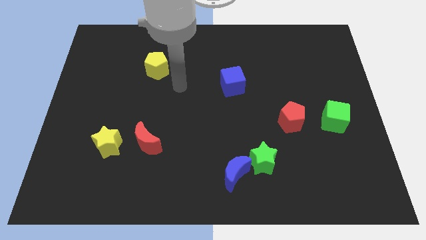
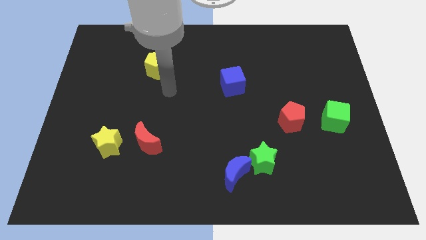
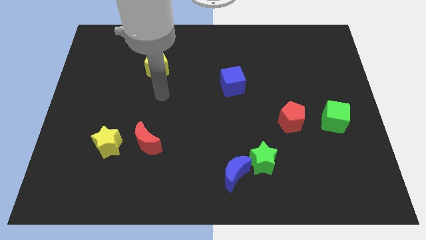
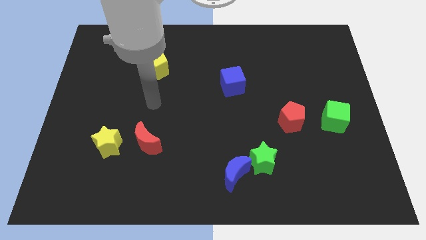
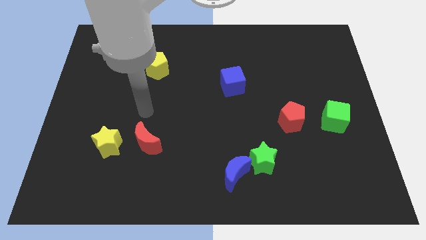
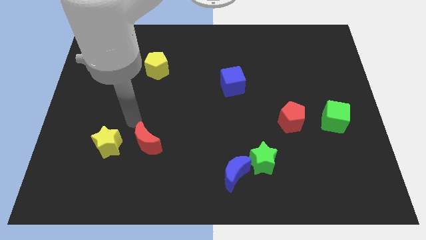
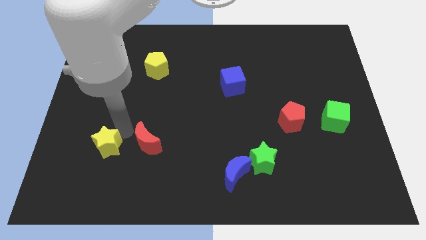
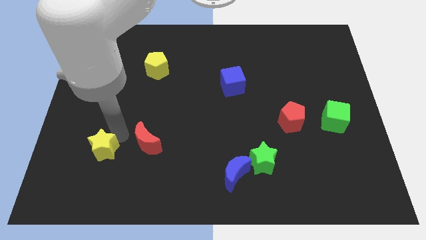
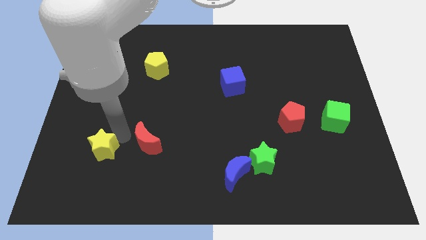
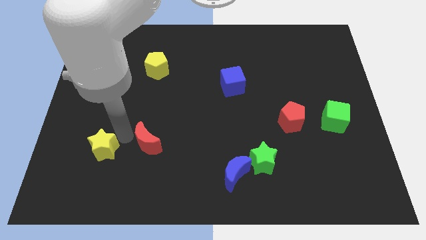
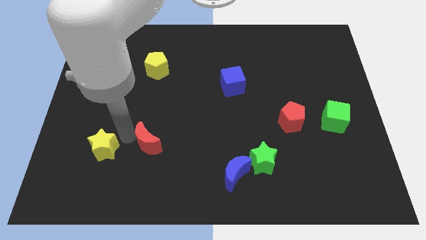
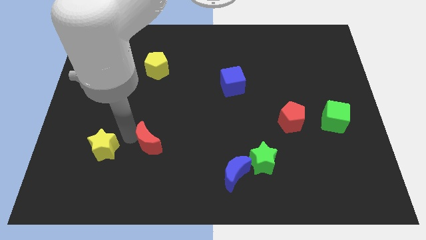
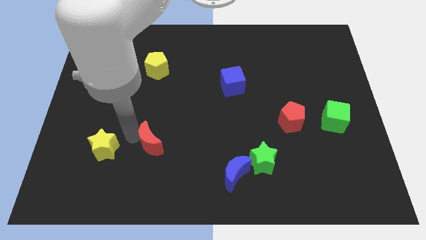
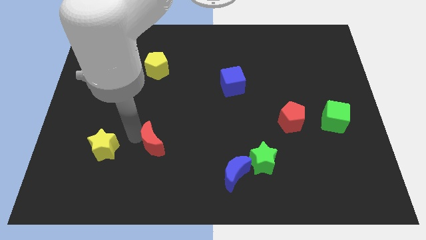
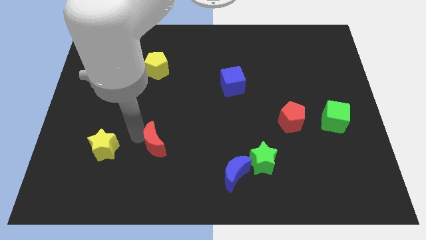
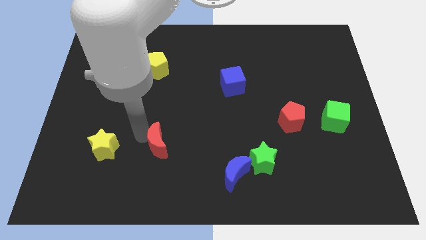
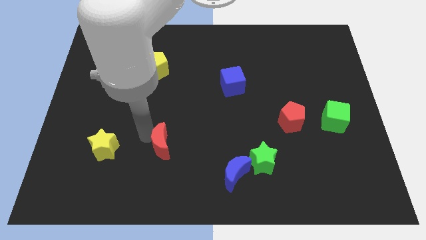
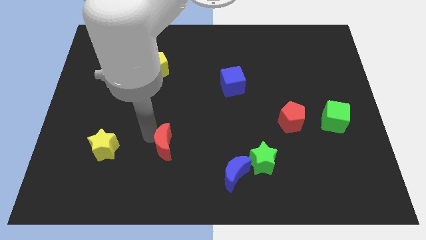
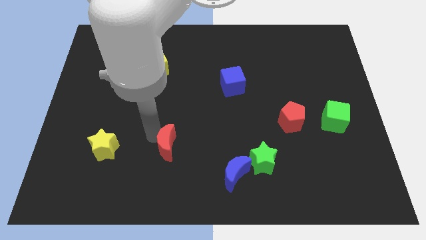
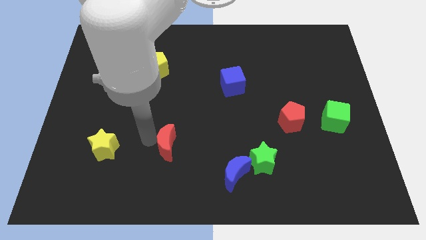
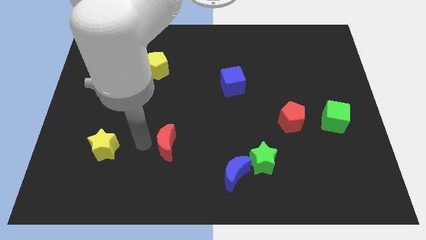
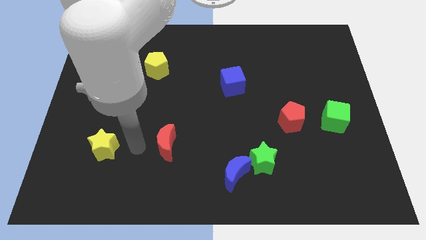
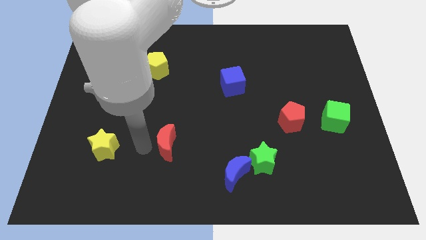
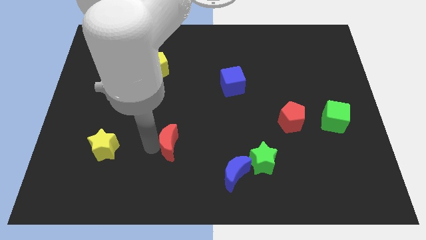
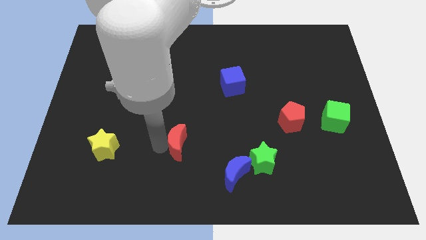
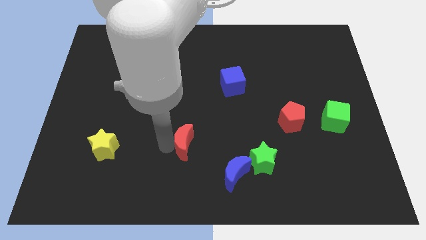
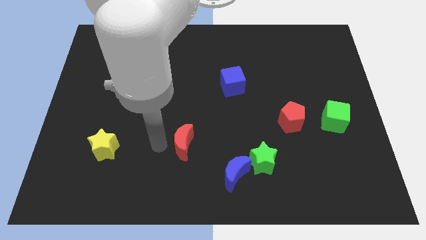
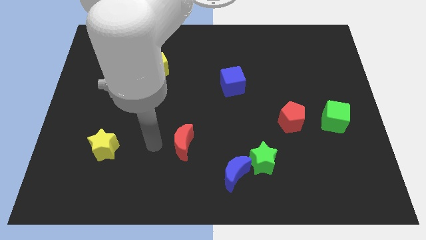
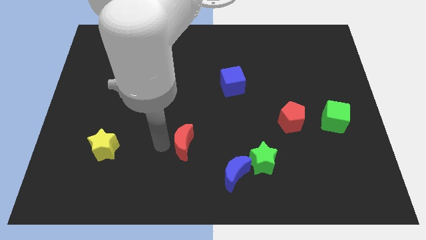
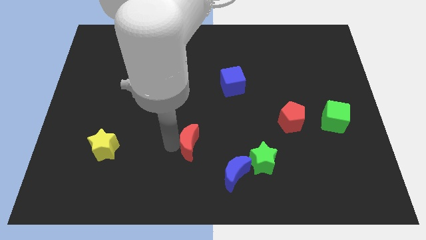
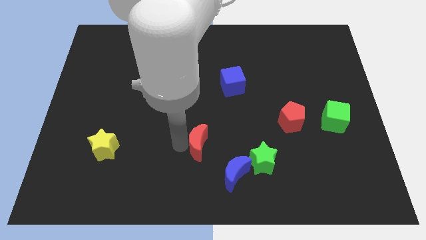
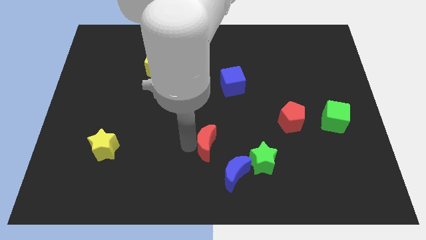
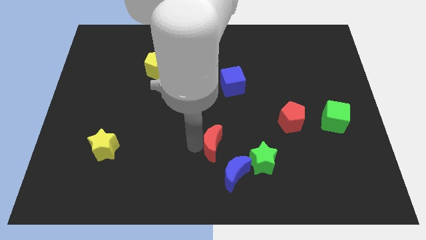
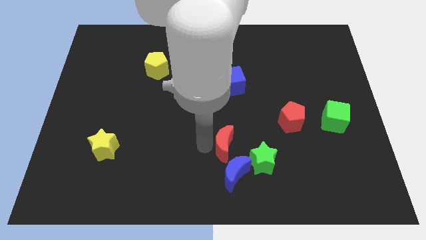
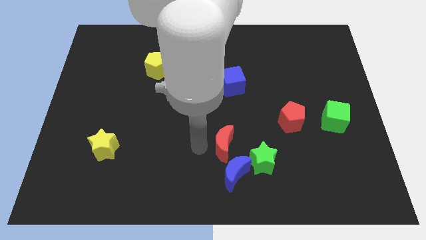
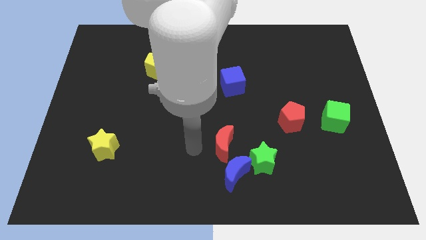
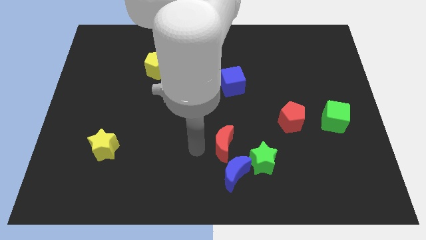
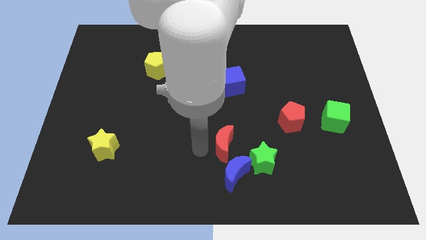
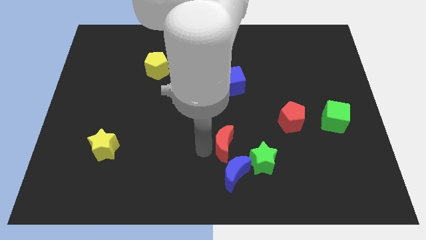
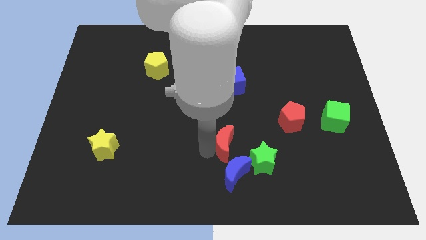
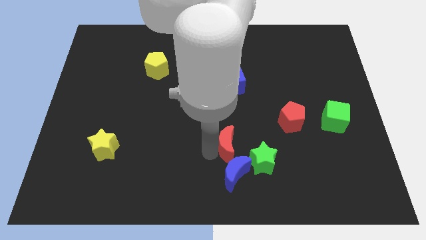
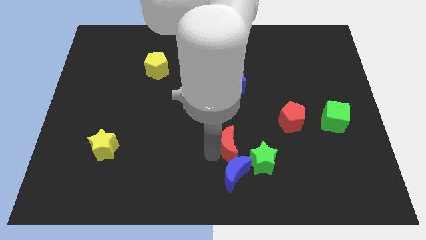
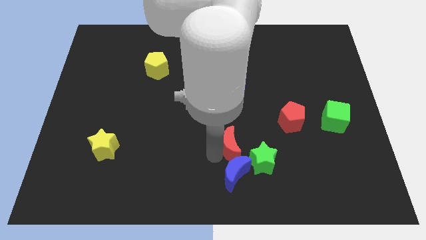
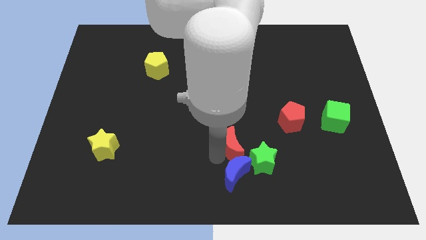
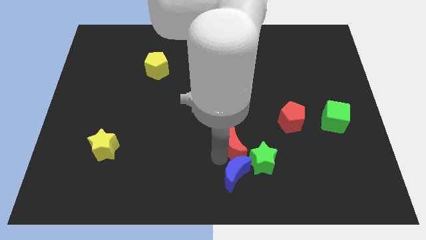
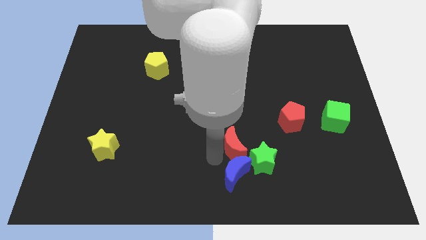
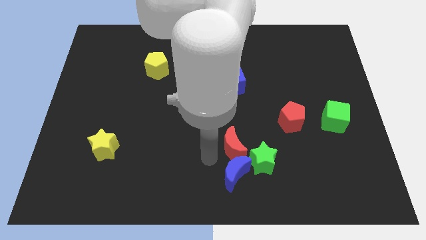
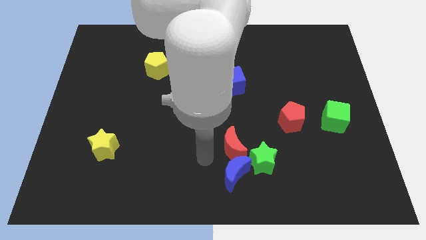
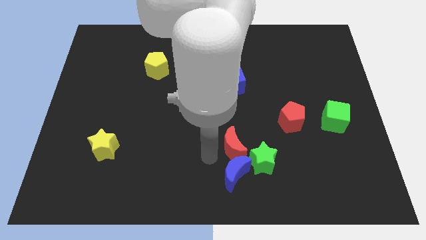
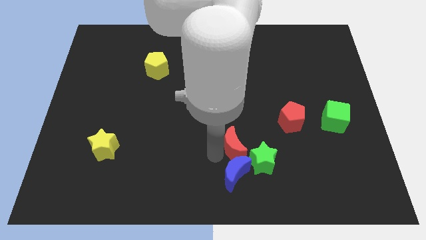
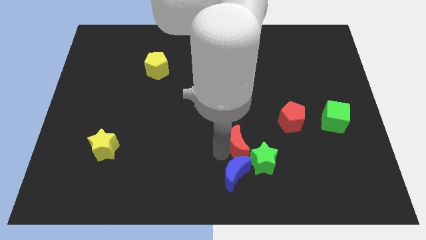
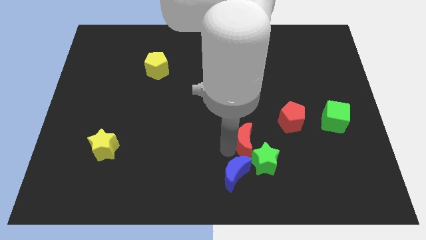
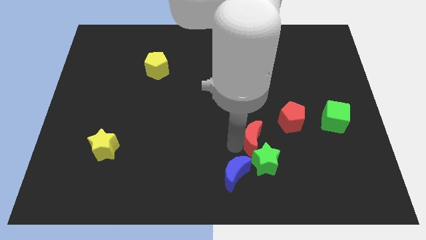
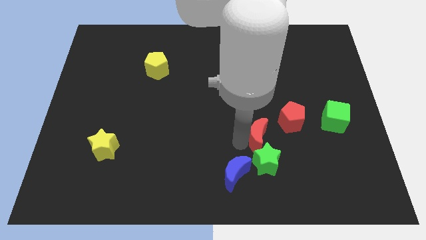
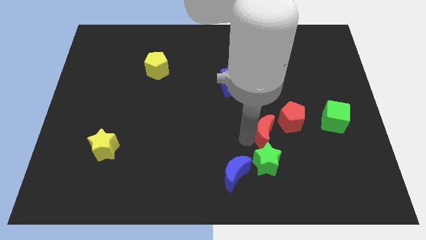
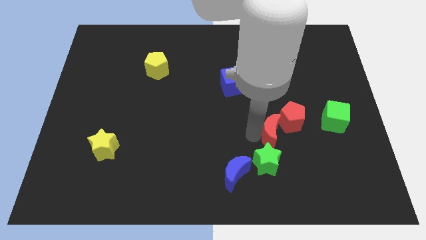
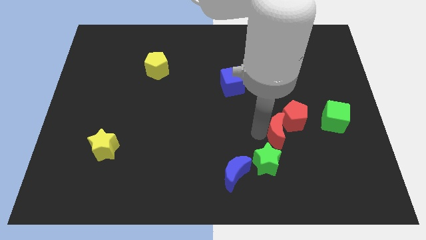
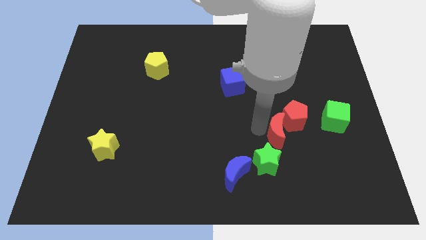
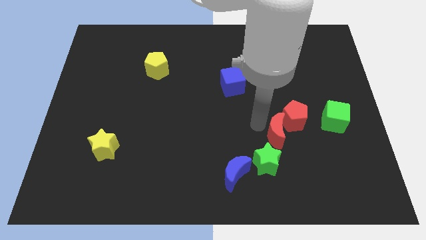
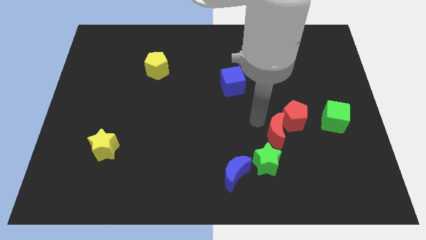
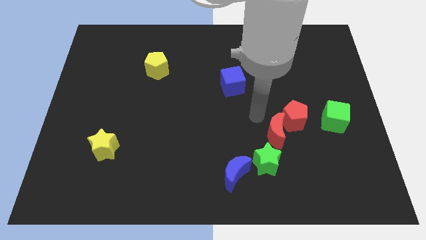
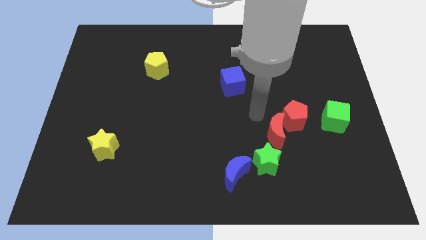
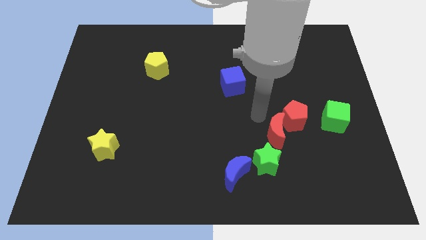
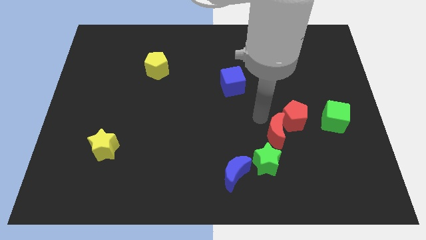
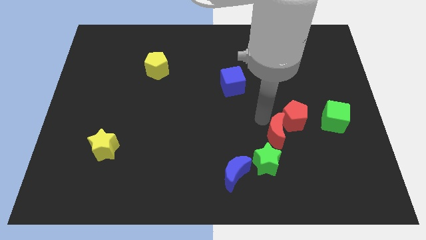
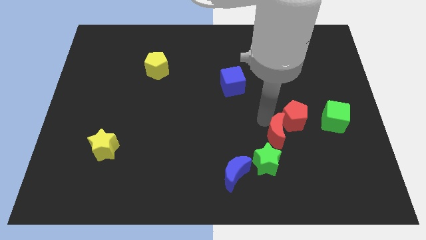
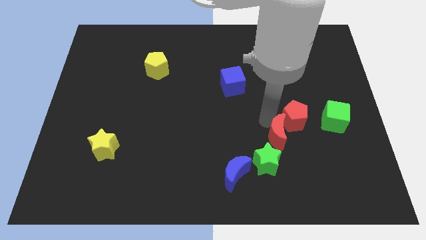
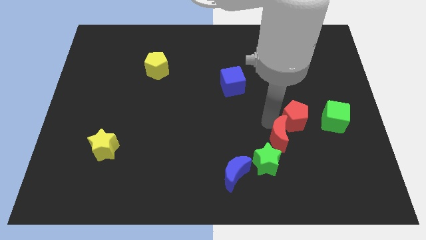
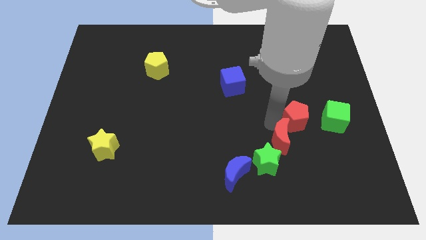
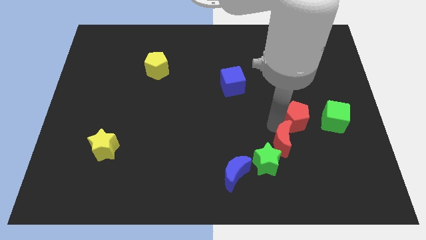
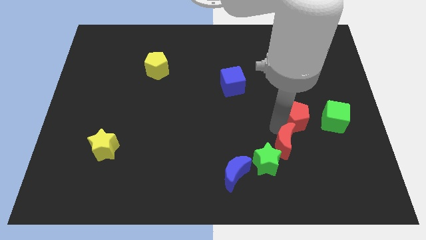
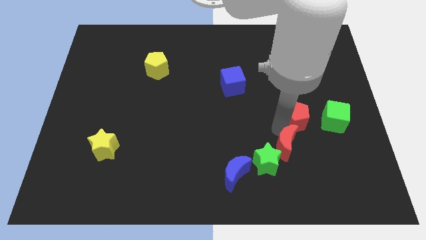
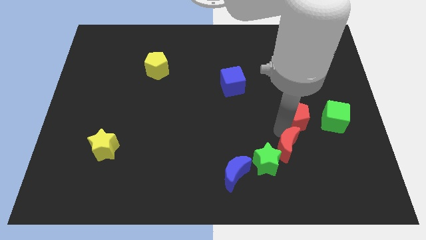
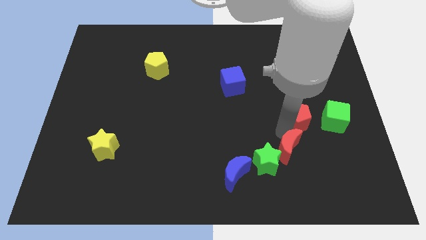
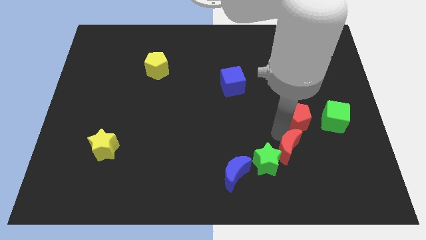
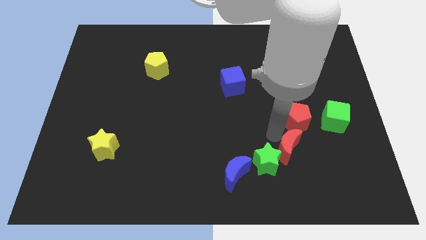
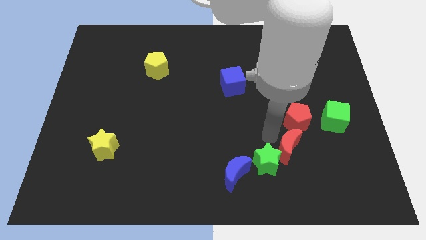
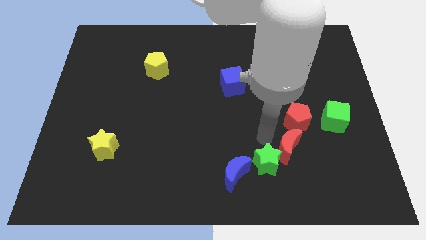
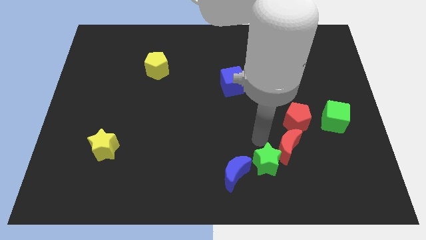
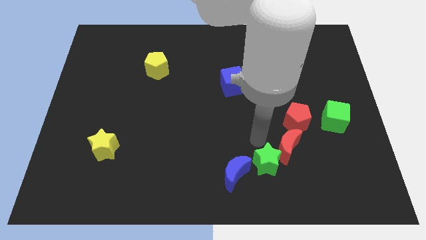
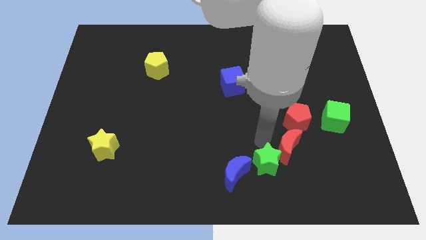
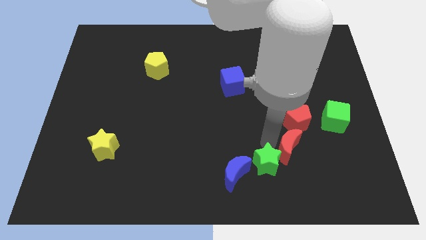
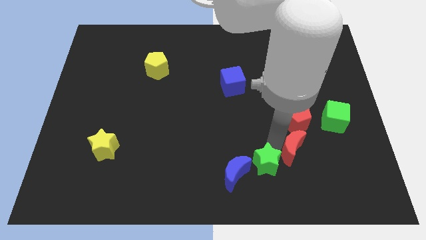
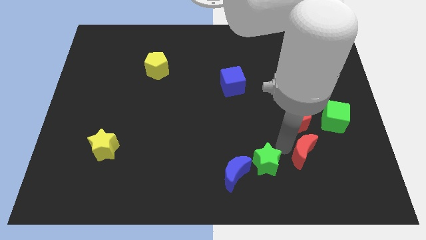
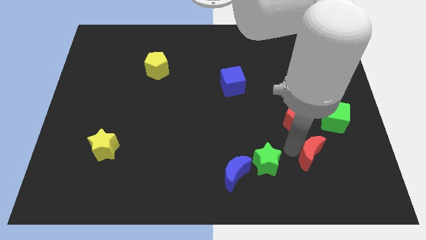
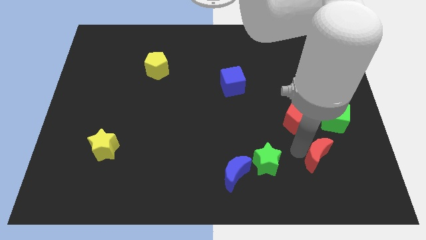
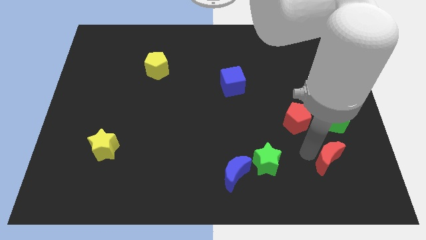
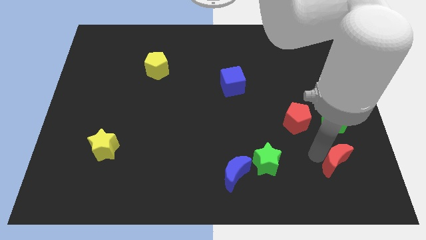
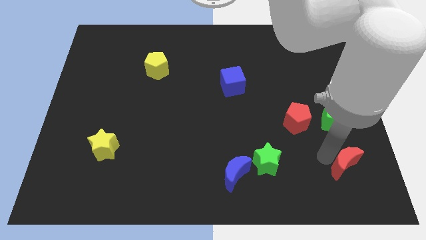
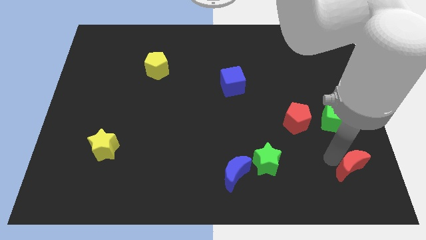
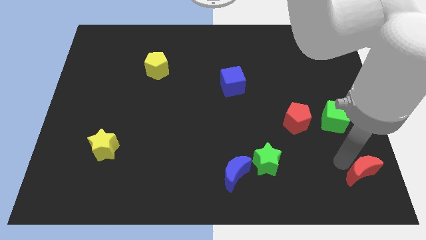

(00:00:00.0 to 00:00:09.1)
slide the red moon to the bottom right of the board
